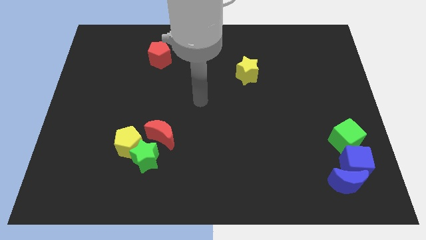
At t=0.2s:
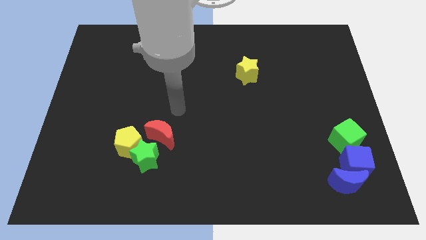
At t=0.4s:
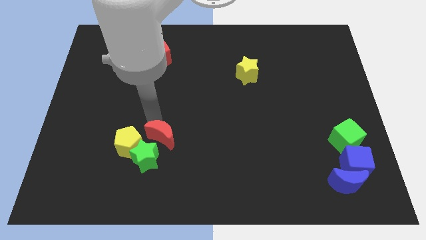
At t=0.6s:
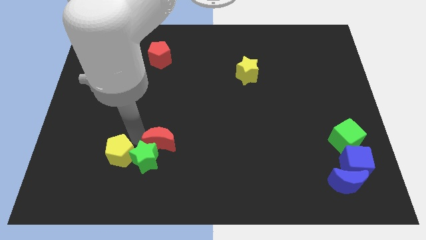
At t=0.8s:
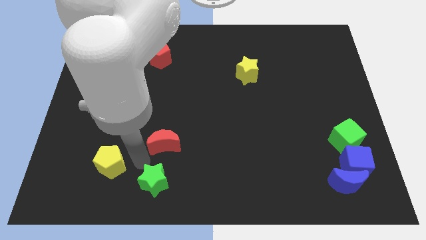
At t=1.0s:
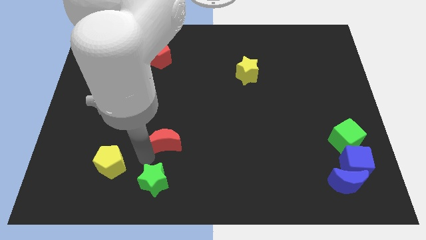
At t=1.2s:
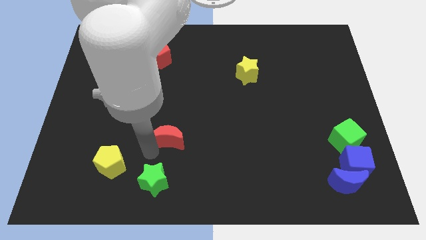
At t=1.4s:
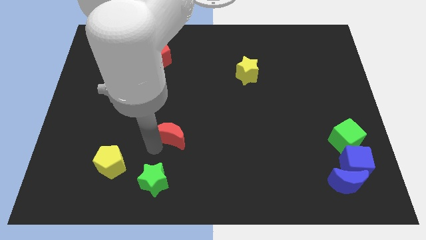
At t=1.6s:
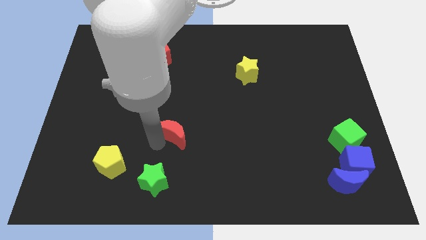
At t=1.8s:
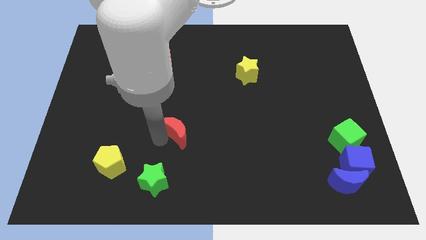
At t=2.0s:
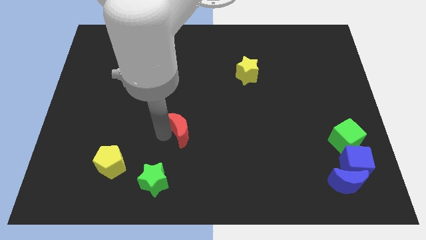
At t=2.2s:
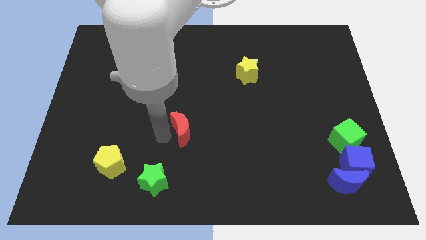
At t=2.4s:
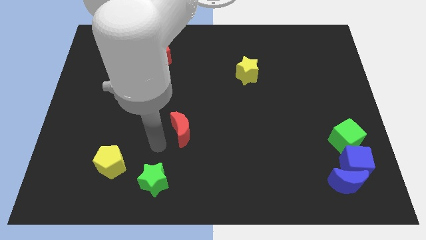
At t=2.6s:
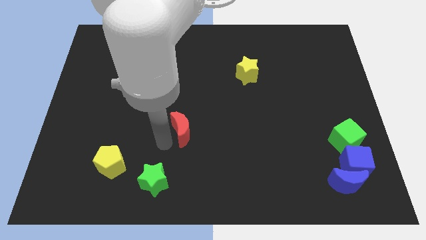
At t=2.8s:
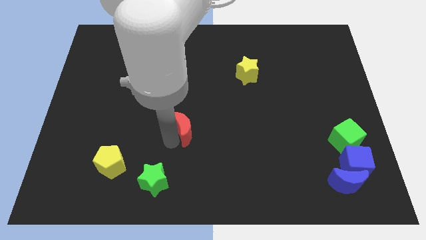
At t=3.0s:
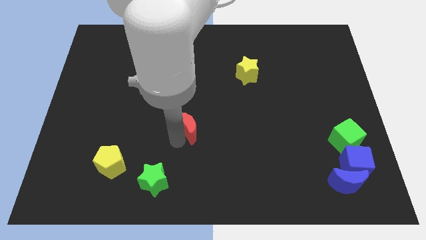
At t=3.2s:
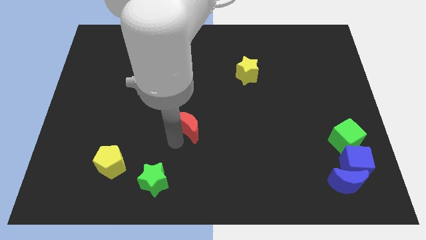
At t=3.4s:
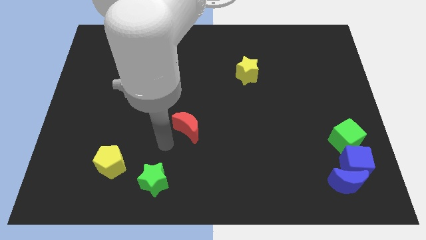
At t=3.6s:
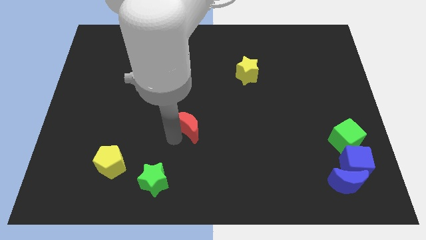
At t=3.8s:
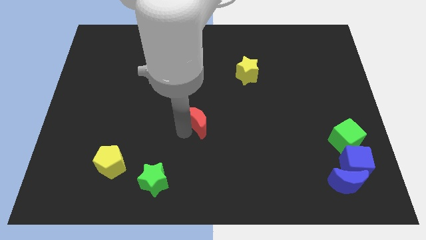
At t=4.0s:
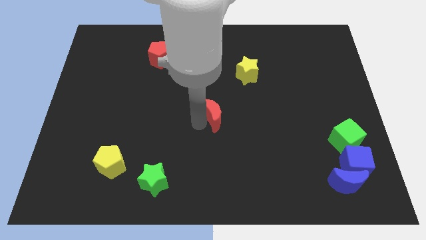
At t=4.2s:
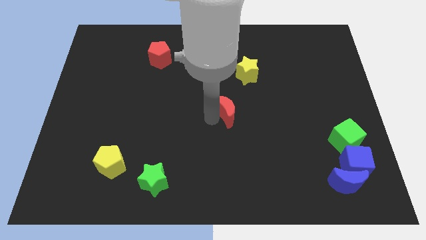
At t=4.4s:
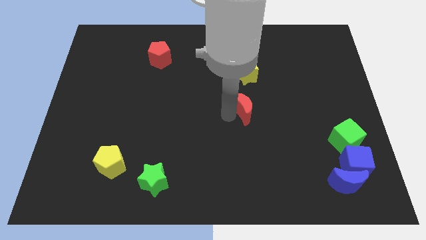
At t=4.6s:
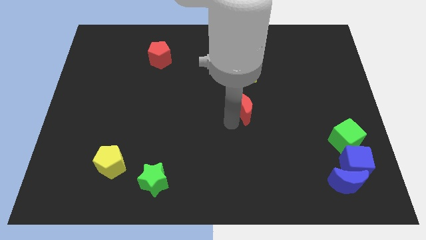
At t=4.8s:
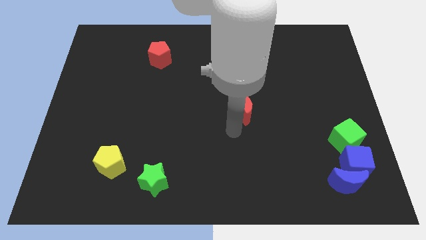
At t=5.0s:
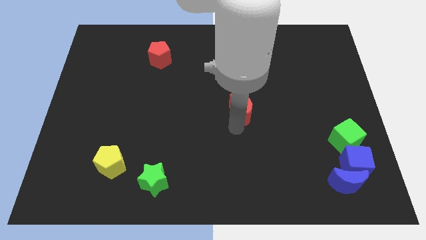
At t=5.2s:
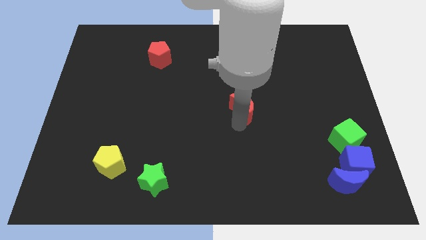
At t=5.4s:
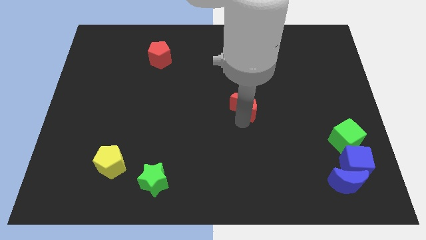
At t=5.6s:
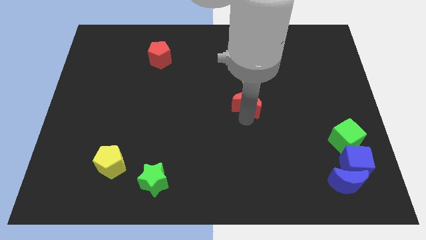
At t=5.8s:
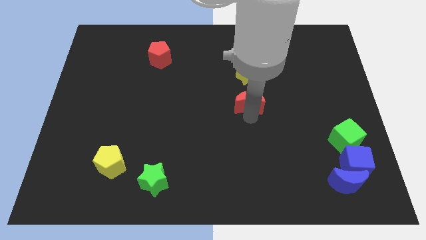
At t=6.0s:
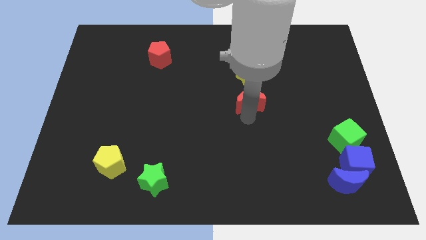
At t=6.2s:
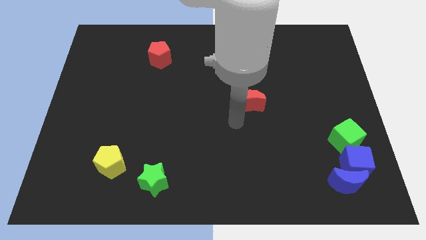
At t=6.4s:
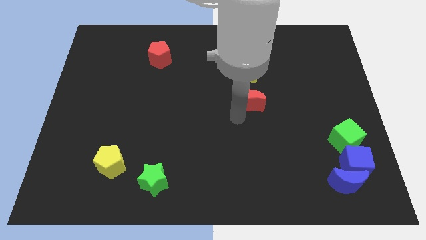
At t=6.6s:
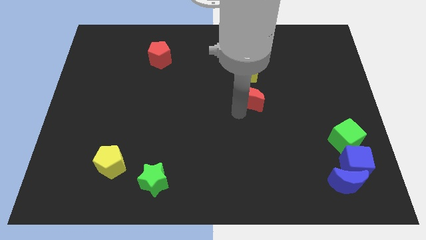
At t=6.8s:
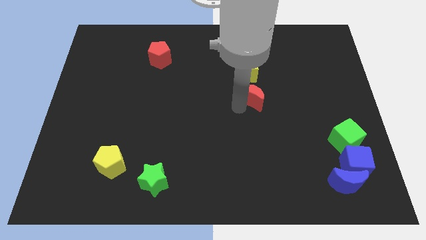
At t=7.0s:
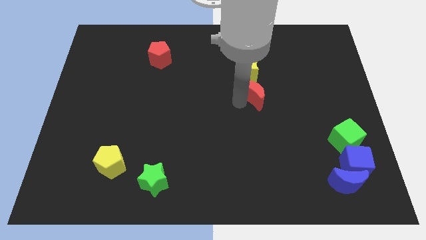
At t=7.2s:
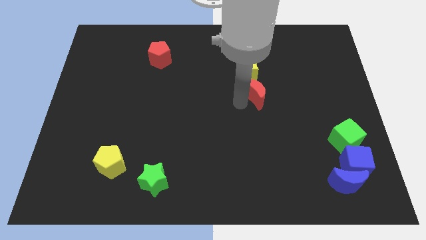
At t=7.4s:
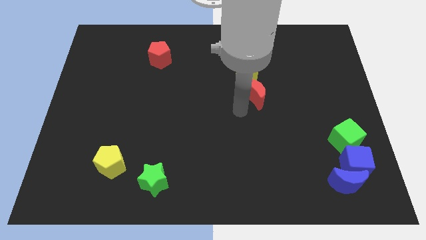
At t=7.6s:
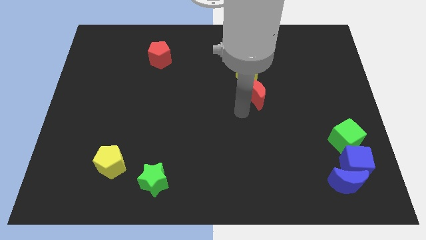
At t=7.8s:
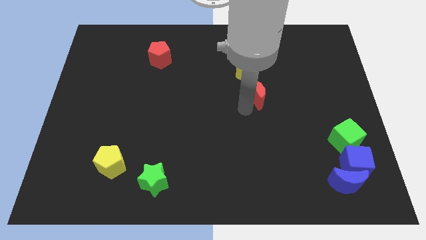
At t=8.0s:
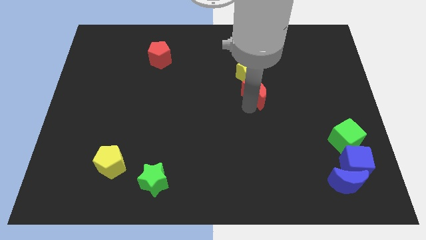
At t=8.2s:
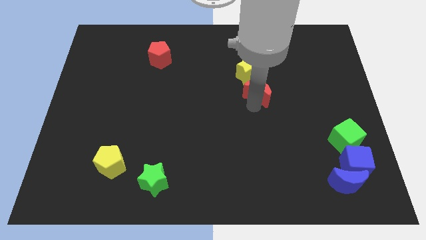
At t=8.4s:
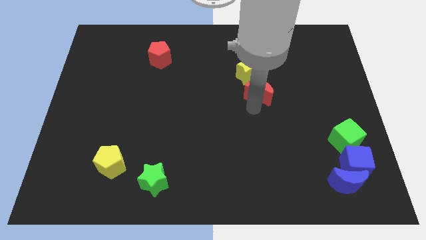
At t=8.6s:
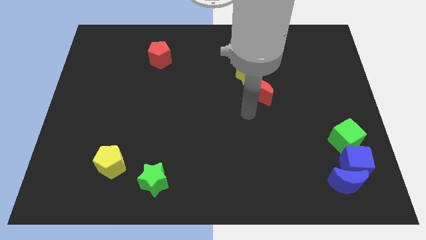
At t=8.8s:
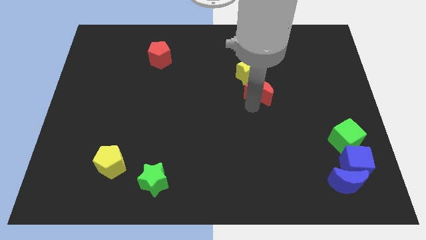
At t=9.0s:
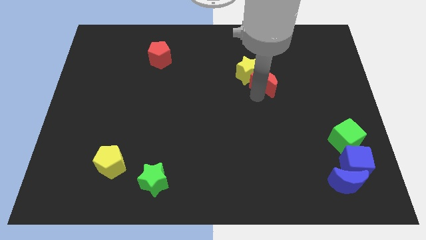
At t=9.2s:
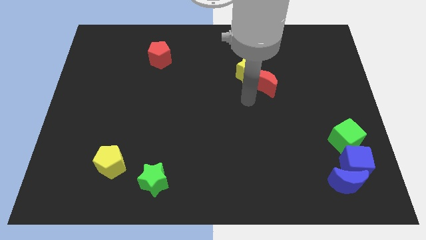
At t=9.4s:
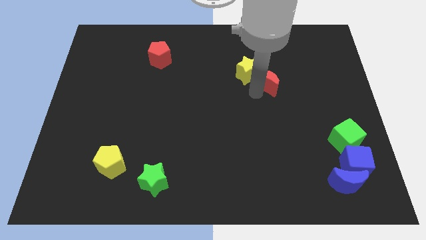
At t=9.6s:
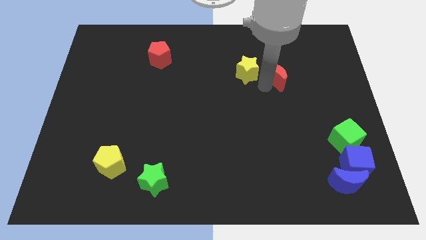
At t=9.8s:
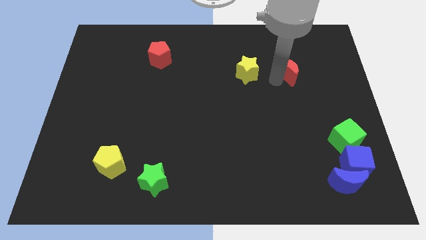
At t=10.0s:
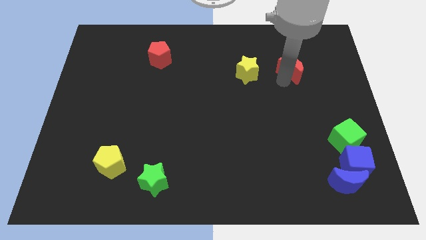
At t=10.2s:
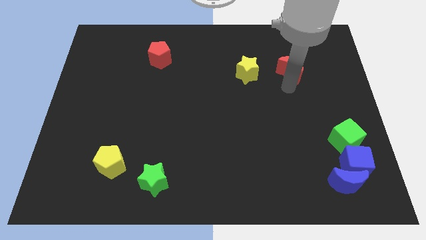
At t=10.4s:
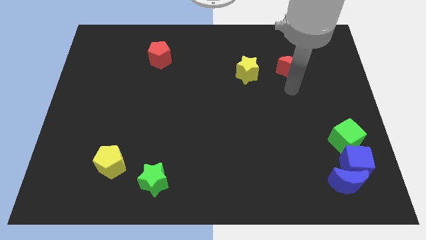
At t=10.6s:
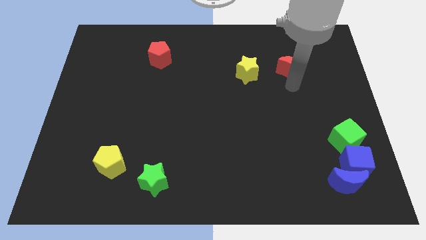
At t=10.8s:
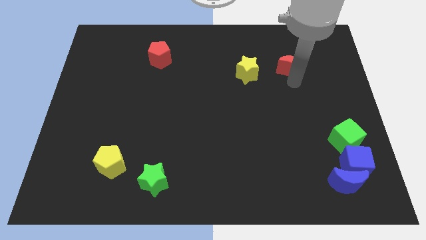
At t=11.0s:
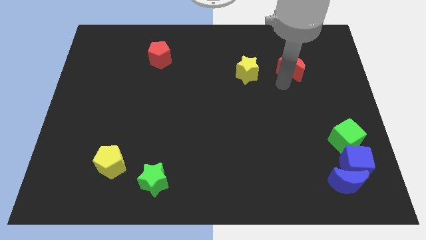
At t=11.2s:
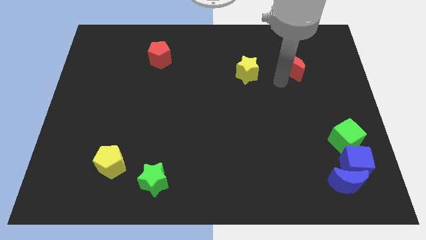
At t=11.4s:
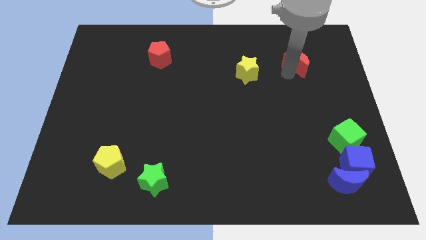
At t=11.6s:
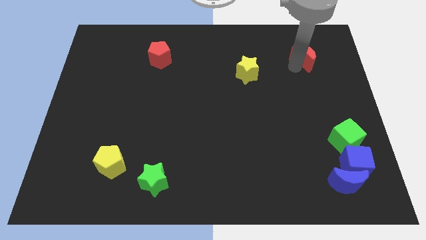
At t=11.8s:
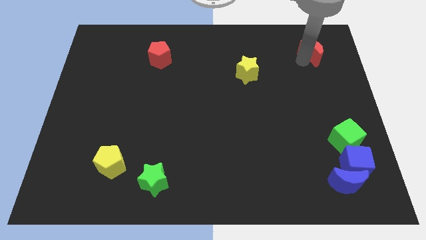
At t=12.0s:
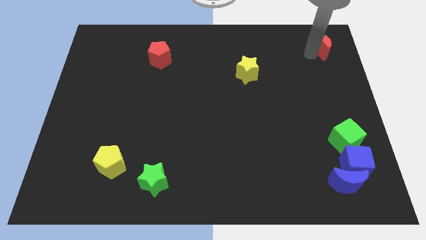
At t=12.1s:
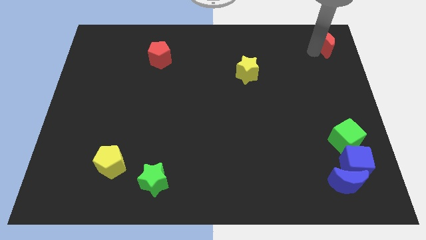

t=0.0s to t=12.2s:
move the red moon to the top right corner
